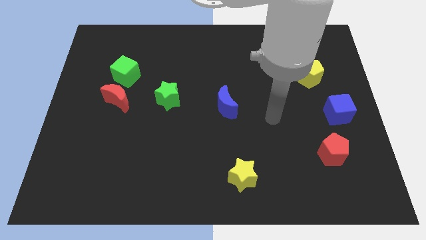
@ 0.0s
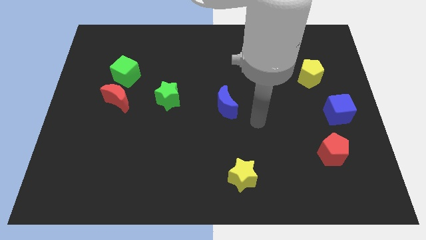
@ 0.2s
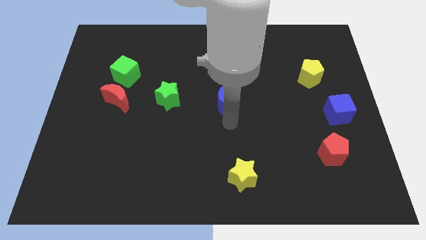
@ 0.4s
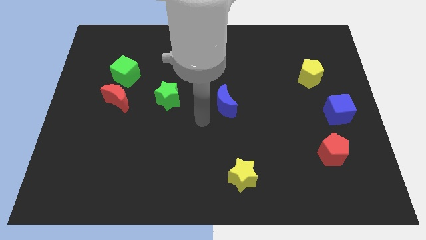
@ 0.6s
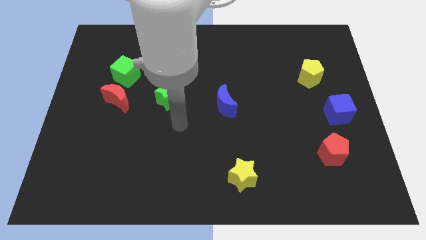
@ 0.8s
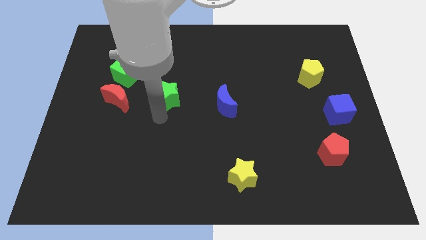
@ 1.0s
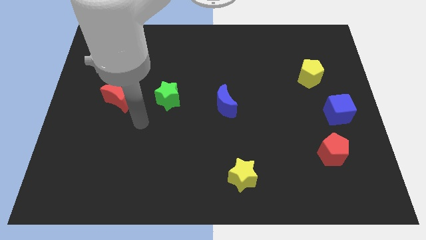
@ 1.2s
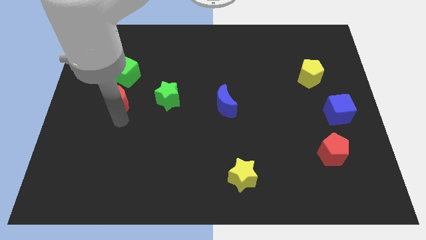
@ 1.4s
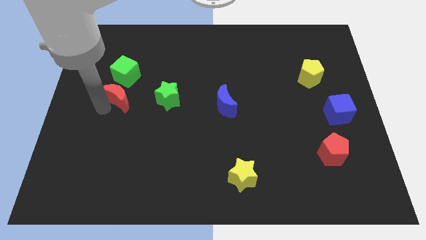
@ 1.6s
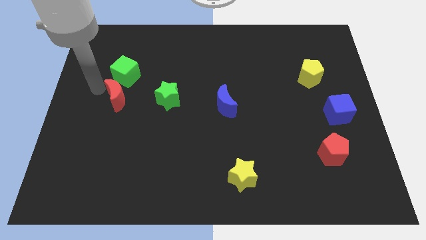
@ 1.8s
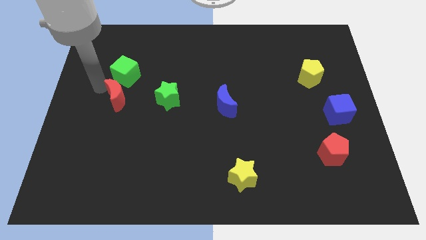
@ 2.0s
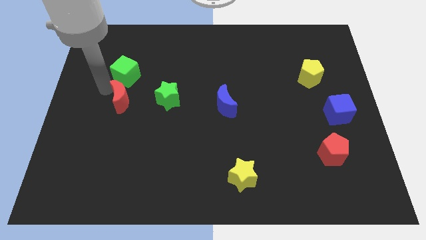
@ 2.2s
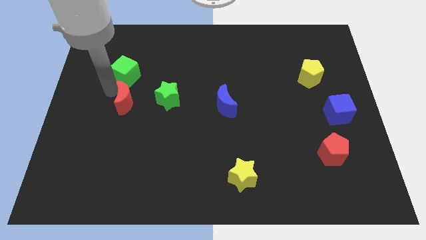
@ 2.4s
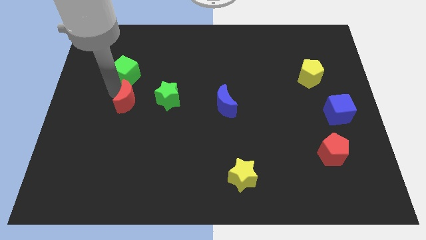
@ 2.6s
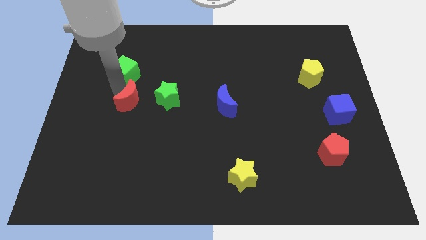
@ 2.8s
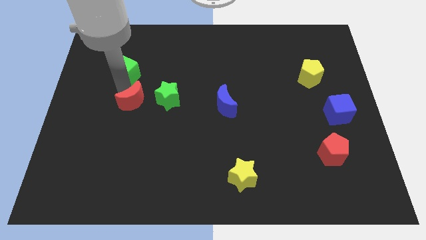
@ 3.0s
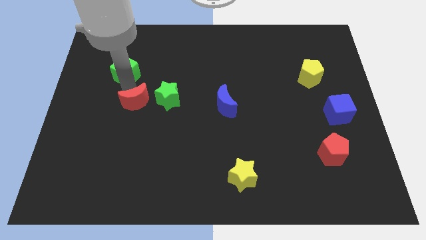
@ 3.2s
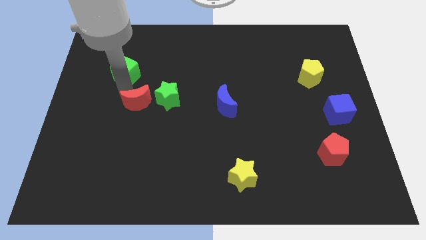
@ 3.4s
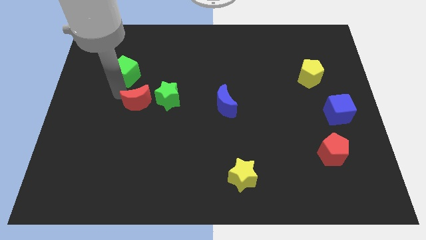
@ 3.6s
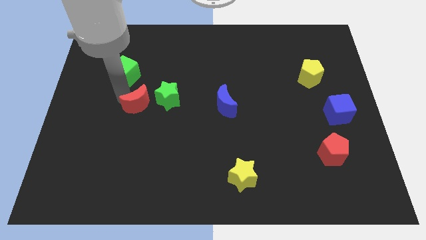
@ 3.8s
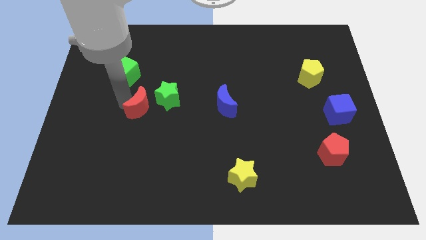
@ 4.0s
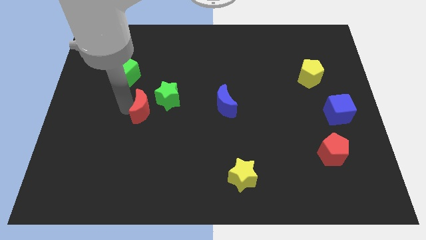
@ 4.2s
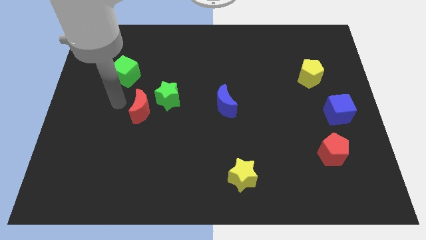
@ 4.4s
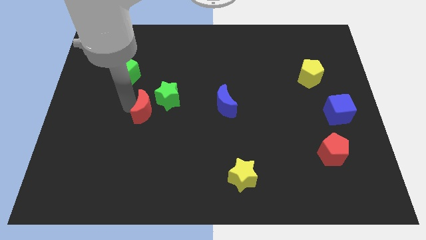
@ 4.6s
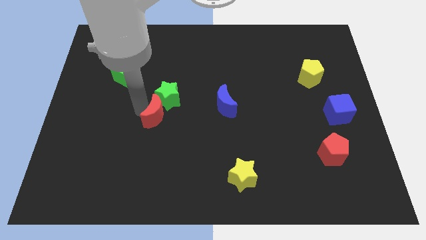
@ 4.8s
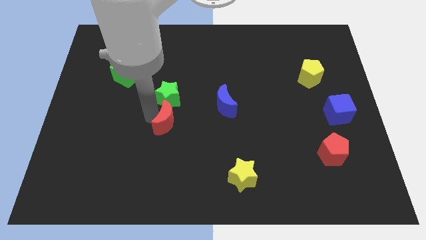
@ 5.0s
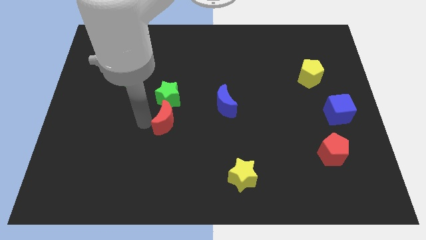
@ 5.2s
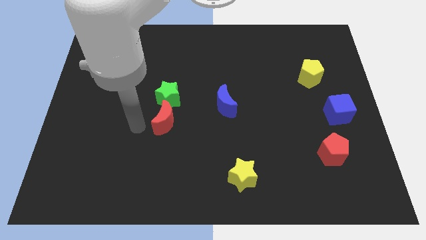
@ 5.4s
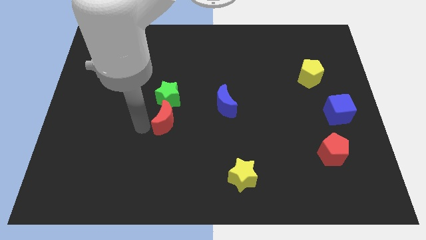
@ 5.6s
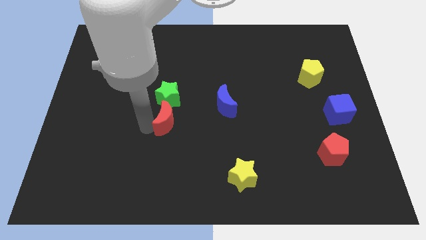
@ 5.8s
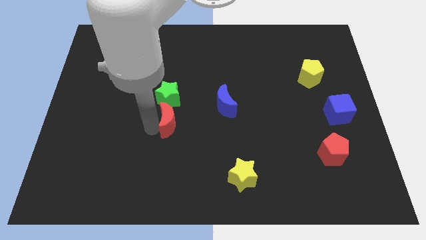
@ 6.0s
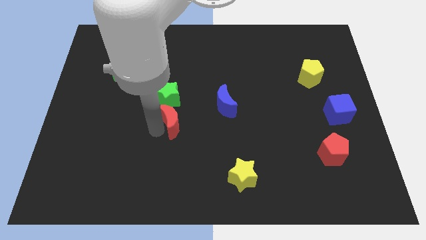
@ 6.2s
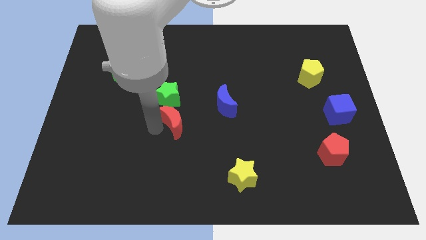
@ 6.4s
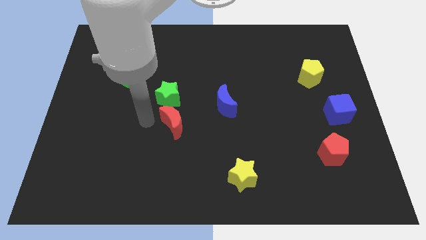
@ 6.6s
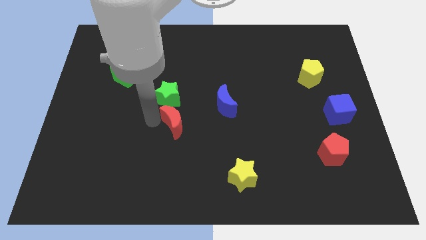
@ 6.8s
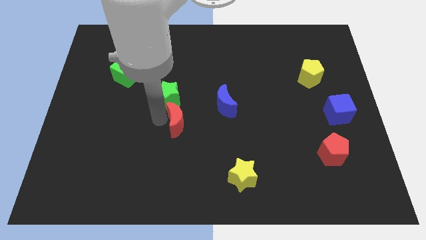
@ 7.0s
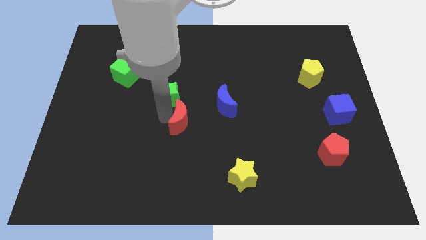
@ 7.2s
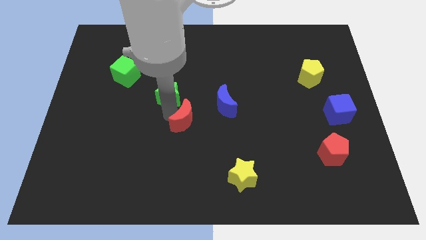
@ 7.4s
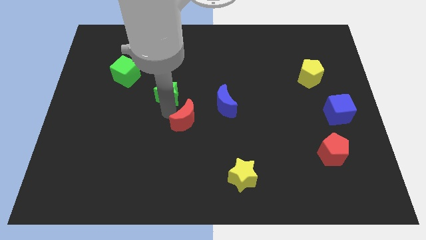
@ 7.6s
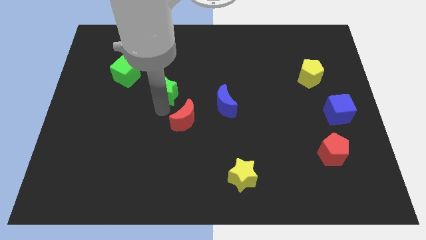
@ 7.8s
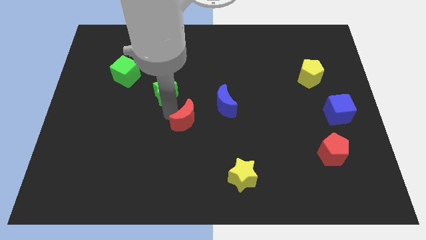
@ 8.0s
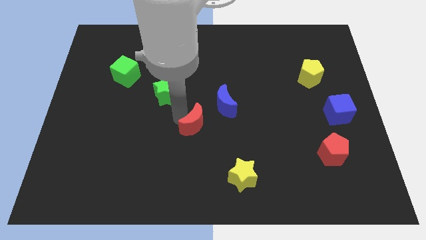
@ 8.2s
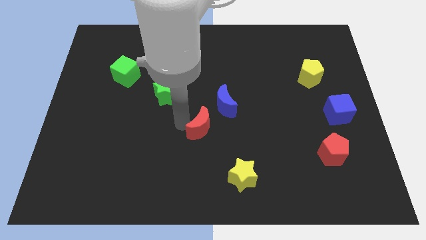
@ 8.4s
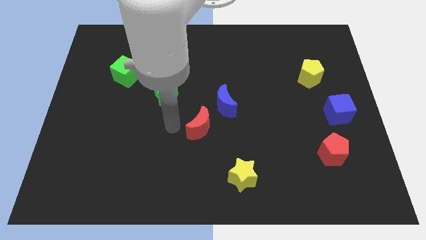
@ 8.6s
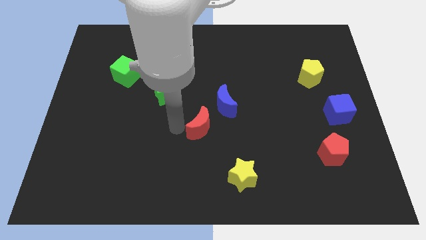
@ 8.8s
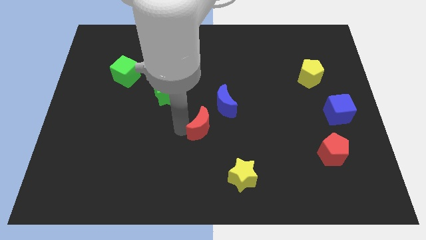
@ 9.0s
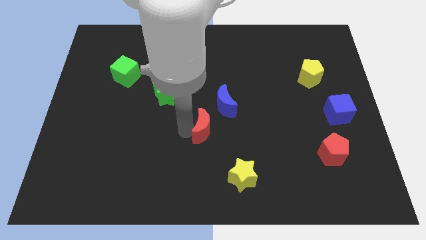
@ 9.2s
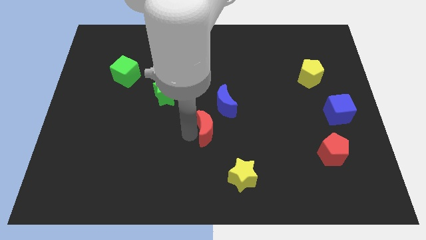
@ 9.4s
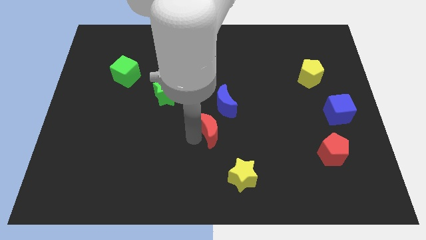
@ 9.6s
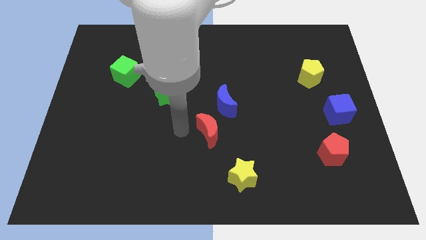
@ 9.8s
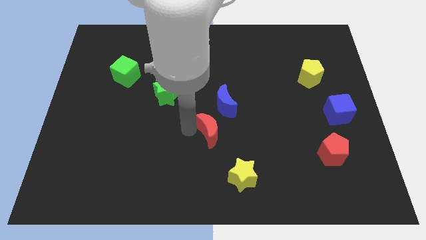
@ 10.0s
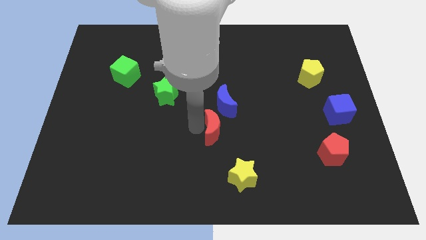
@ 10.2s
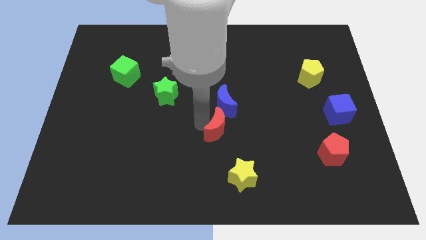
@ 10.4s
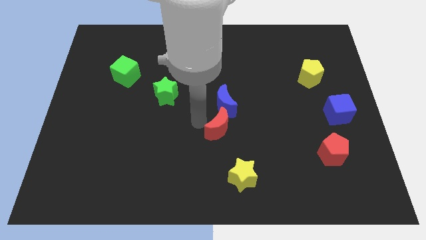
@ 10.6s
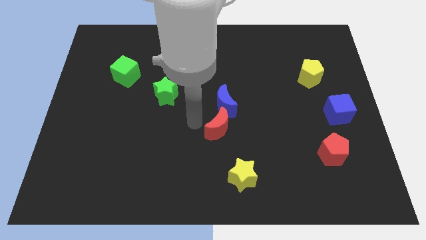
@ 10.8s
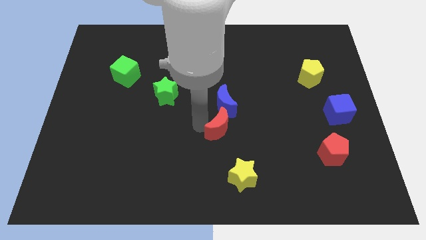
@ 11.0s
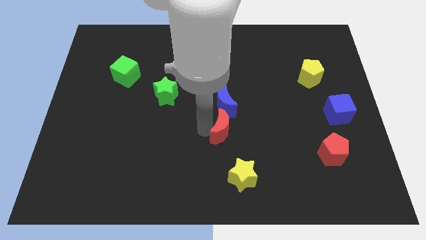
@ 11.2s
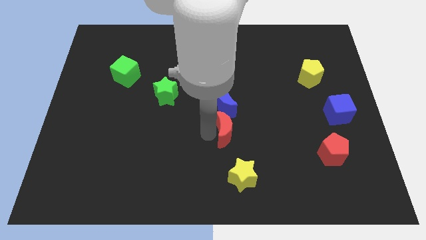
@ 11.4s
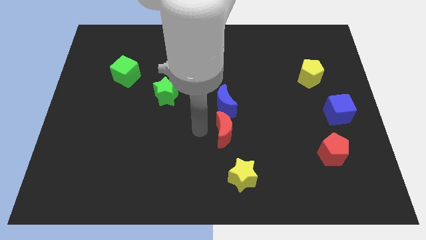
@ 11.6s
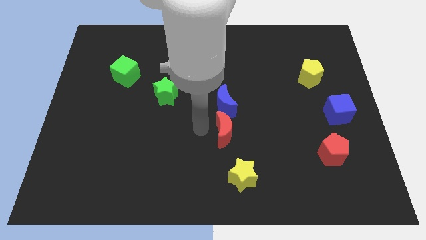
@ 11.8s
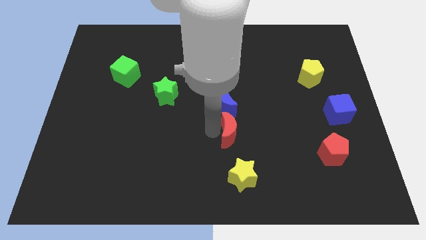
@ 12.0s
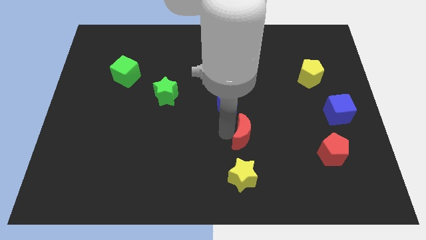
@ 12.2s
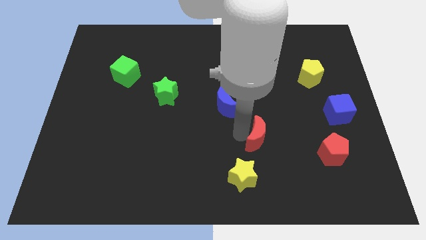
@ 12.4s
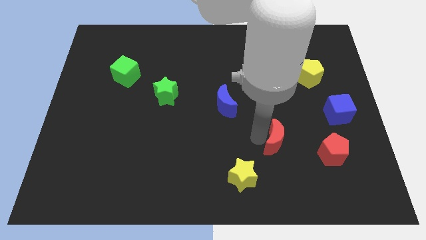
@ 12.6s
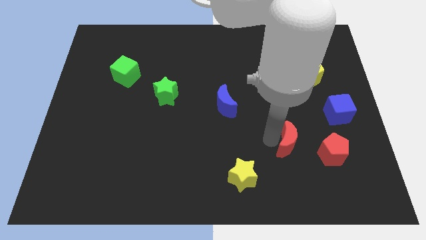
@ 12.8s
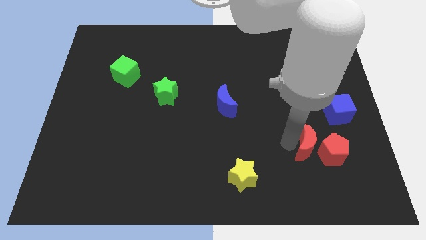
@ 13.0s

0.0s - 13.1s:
push the red moon to the red pentagon
